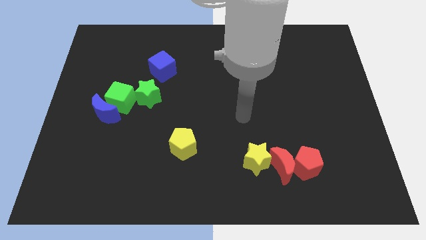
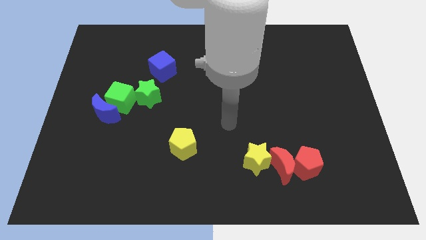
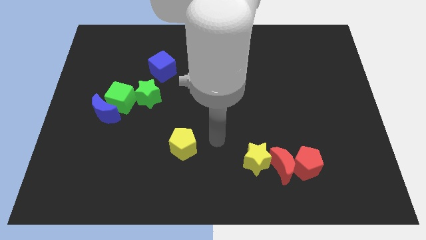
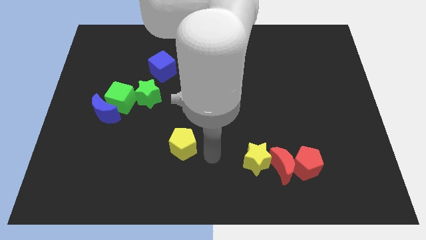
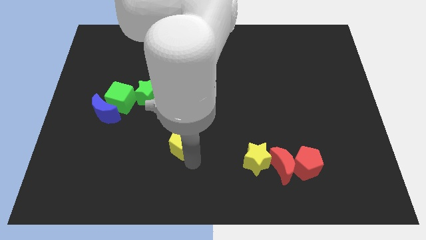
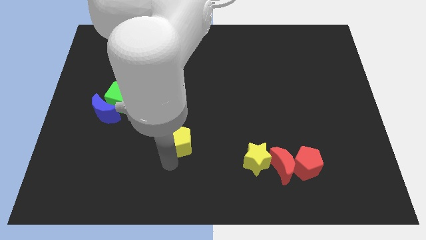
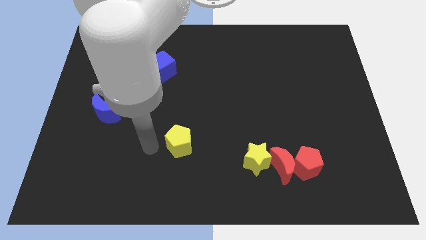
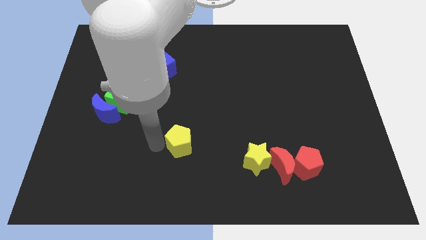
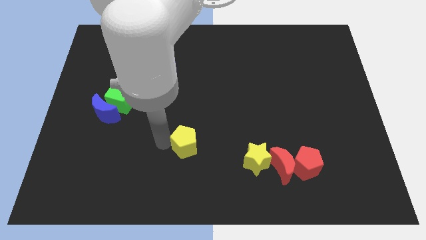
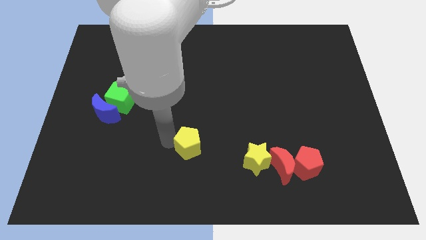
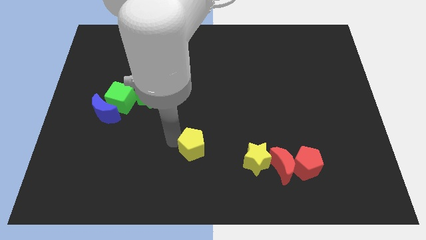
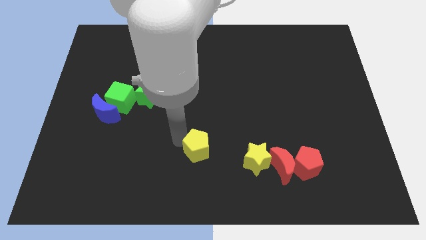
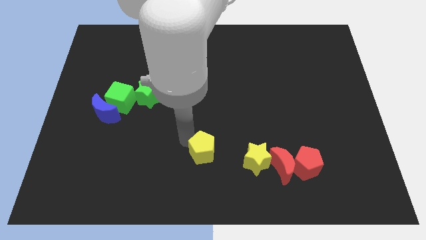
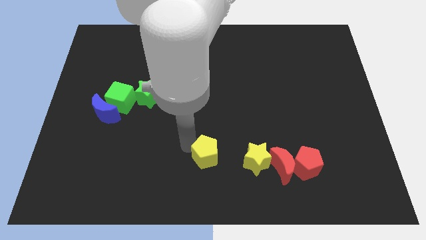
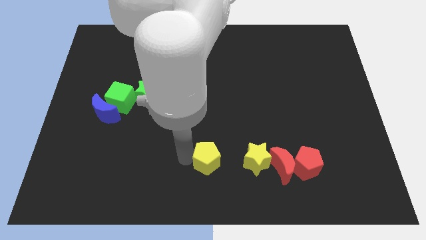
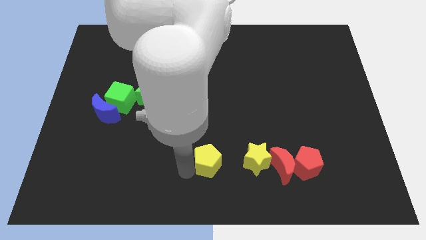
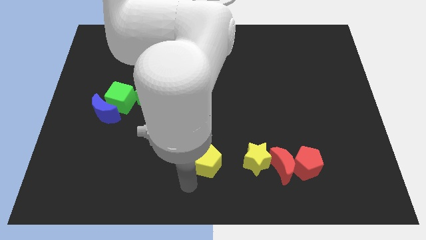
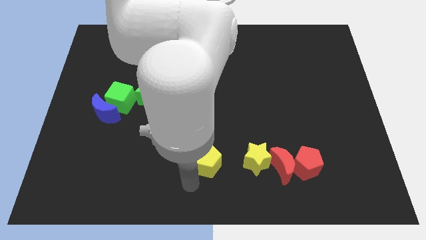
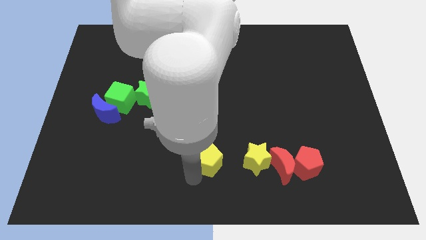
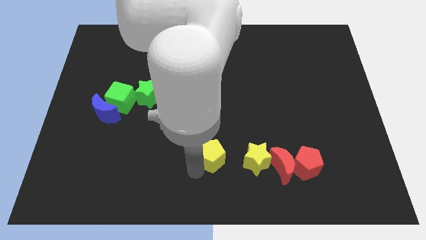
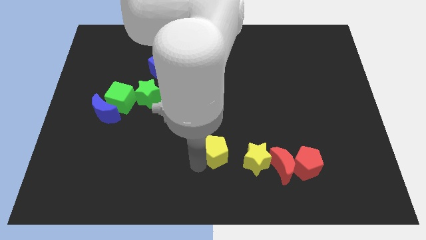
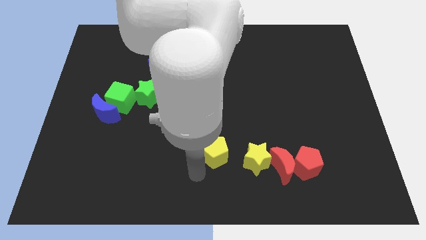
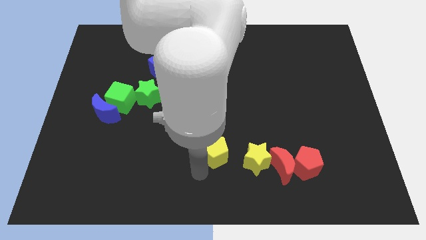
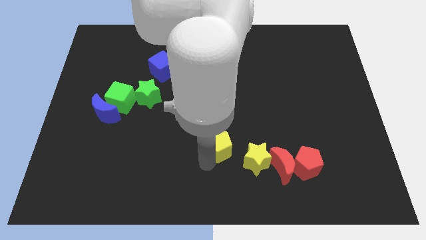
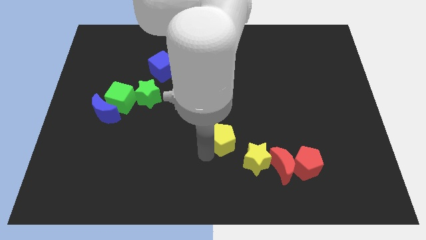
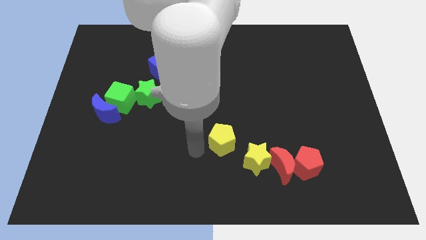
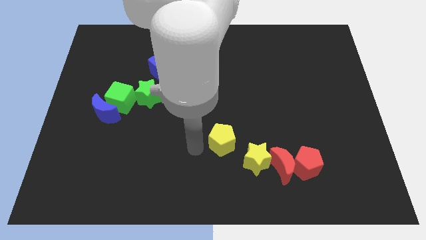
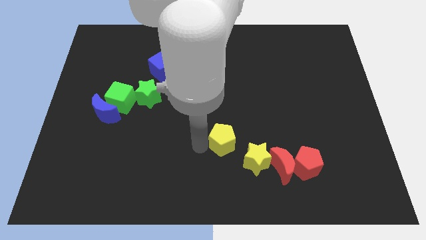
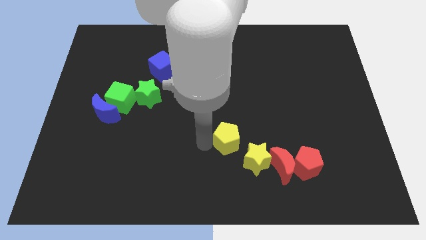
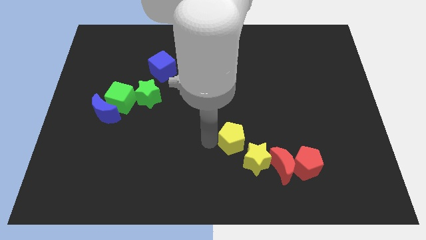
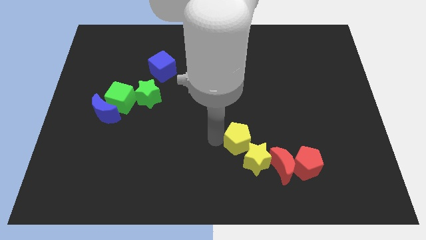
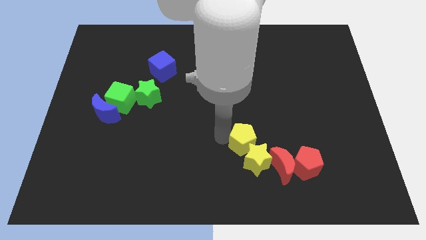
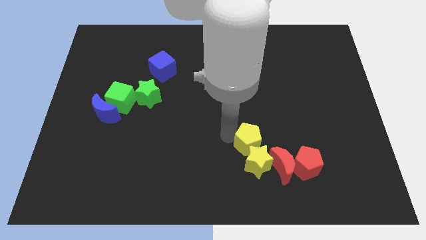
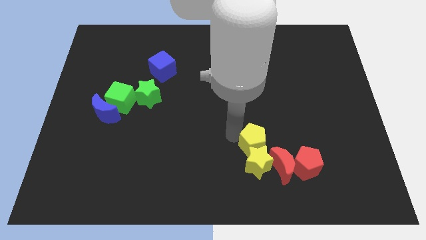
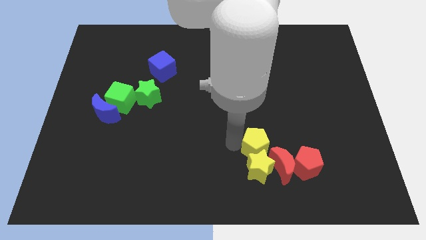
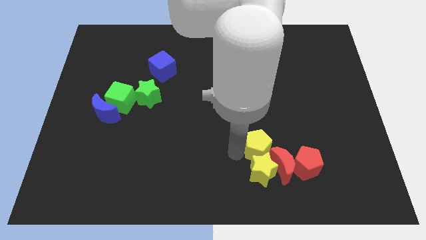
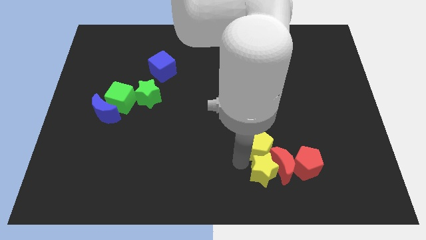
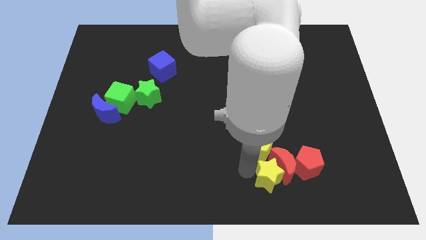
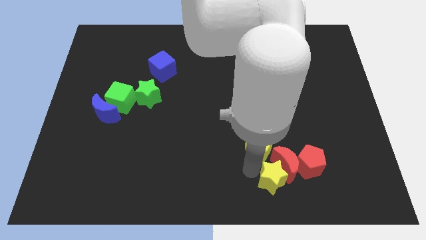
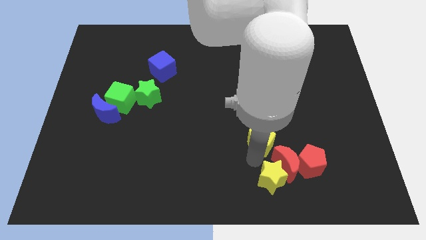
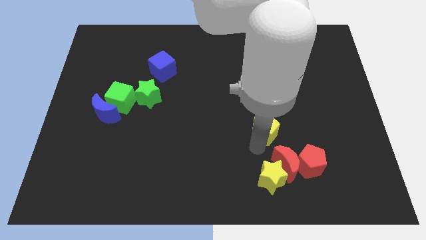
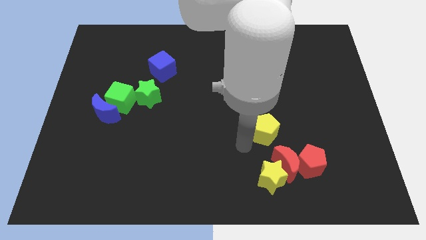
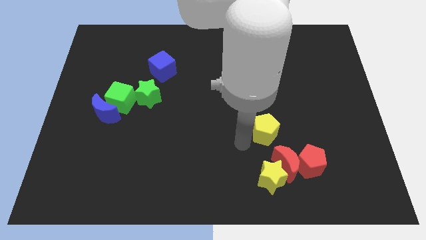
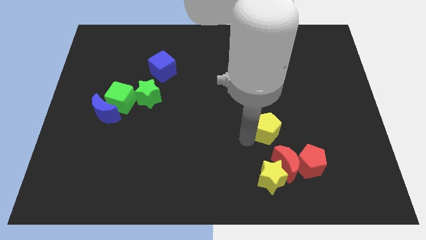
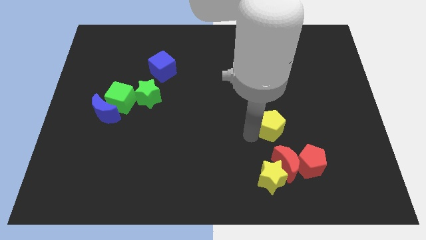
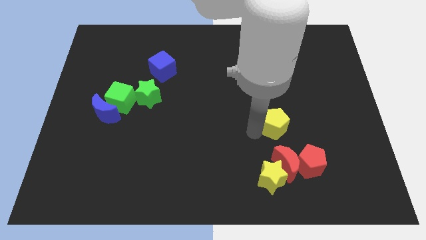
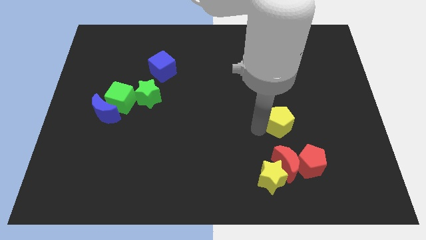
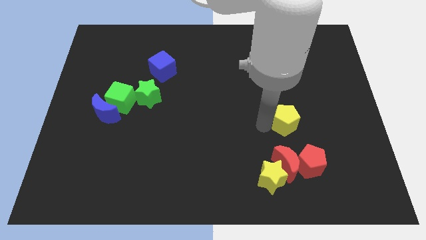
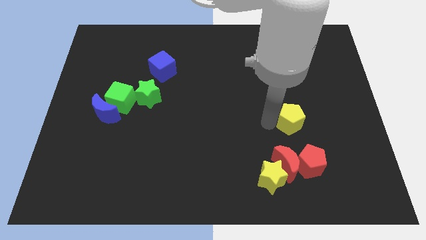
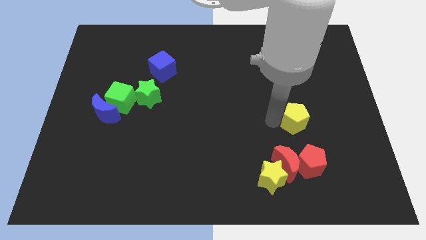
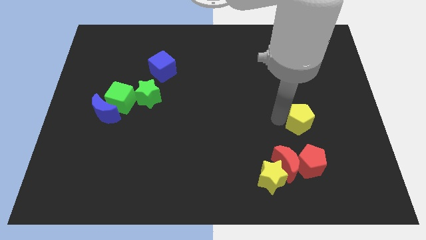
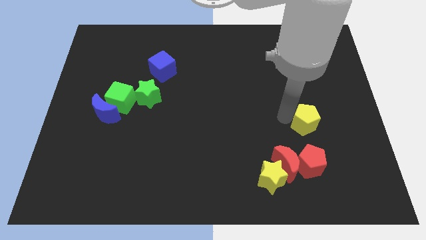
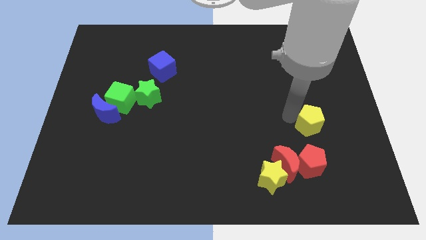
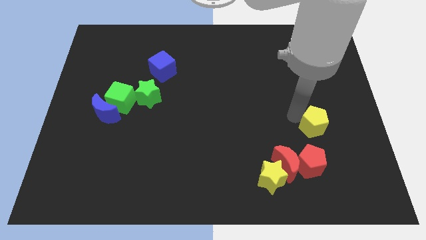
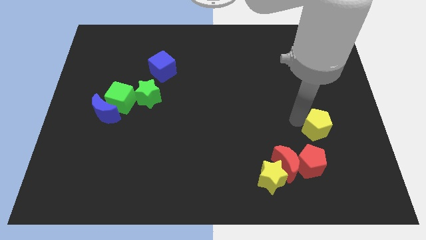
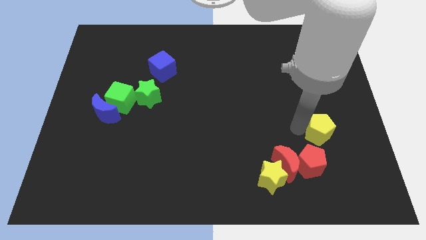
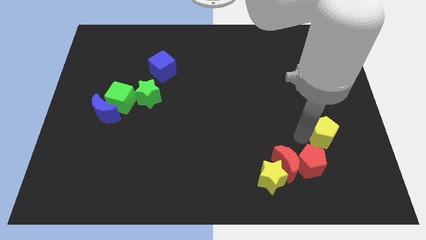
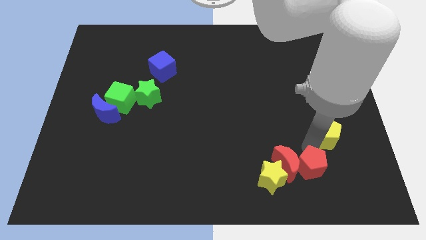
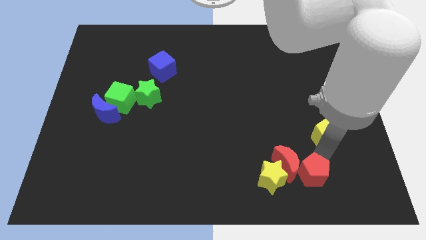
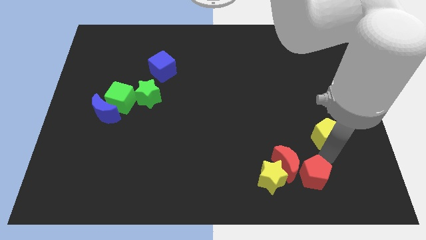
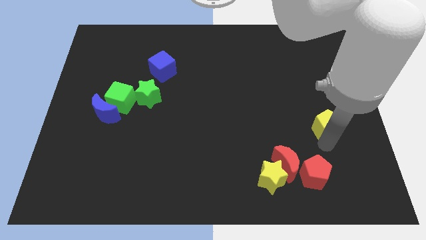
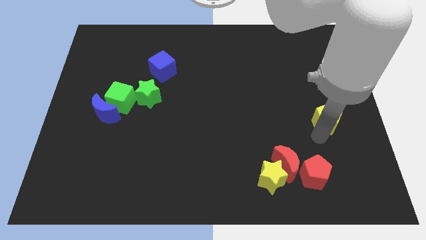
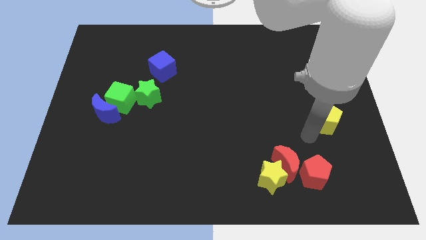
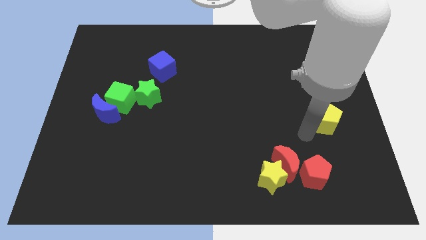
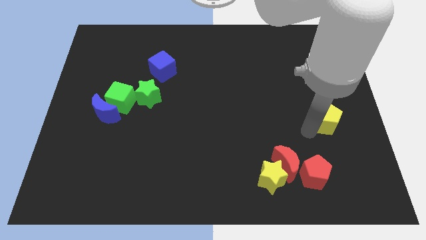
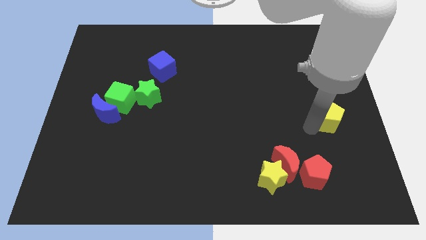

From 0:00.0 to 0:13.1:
push the yellow pentagon to the right side

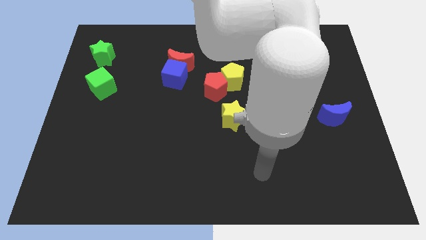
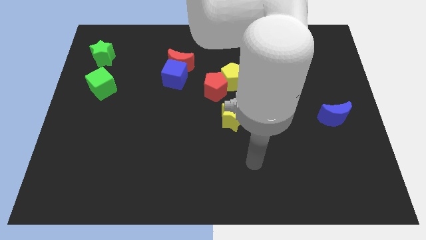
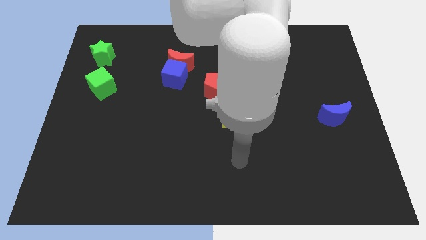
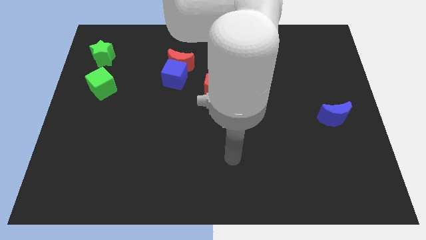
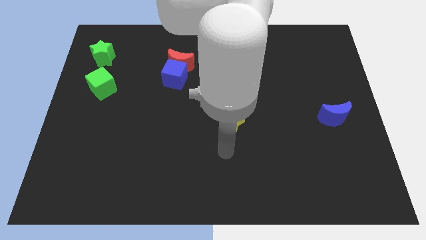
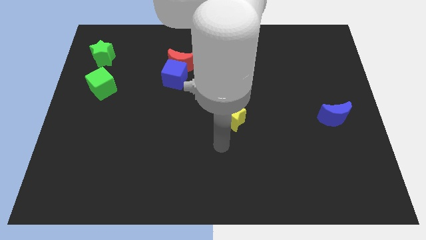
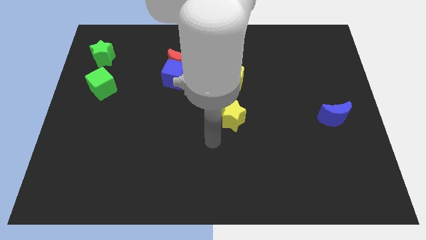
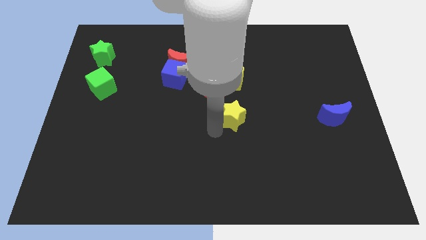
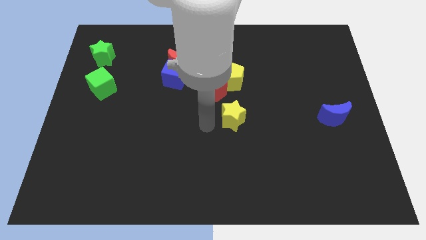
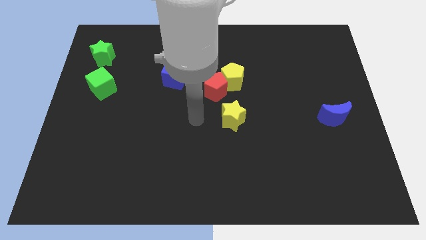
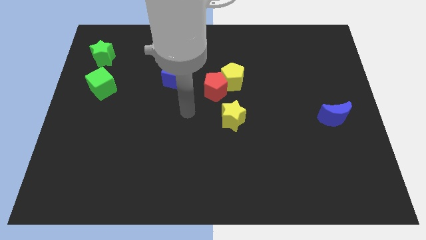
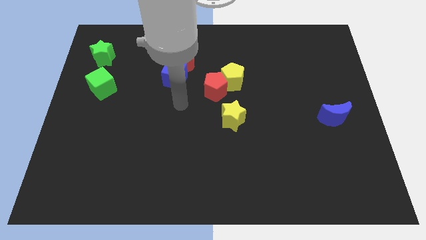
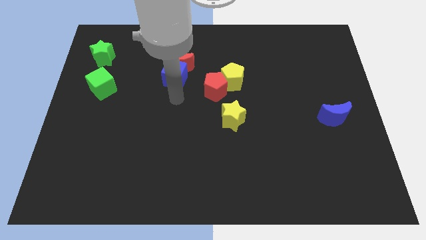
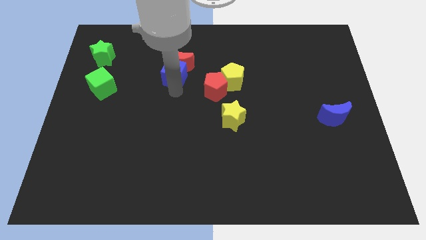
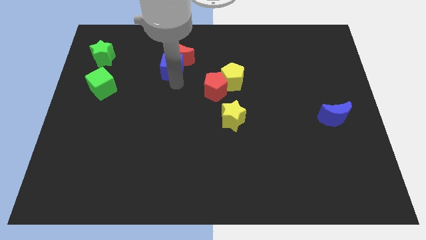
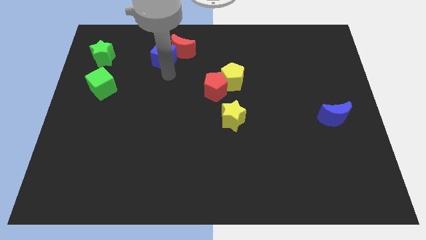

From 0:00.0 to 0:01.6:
slide the red moon to the towards your base

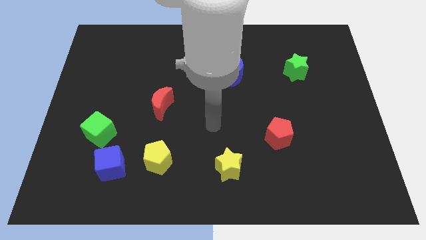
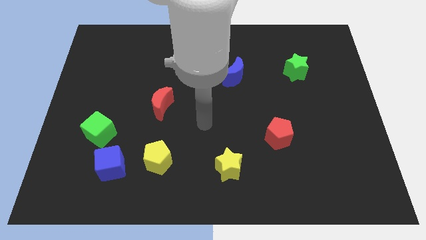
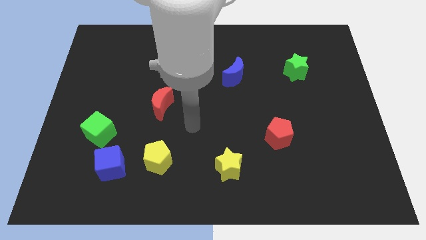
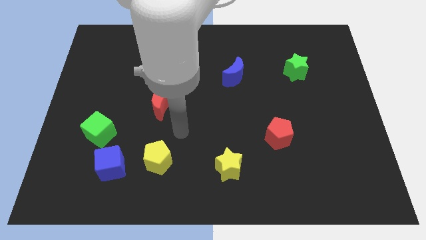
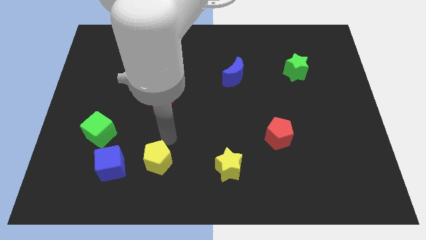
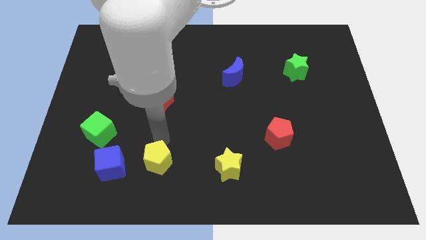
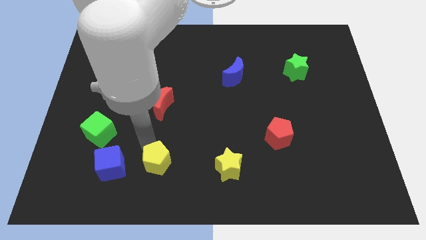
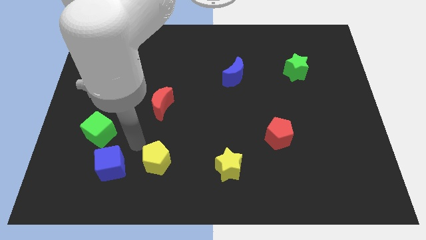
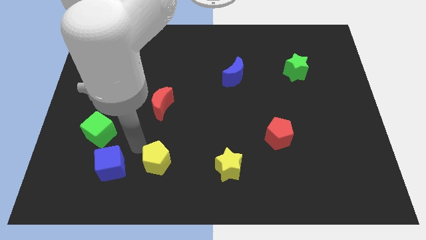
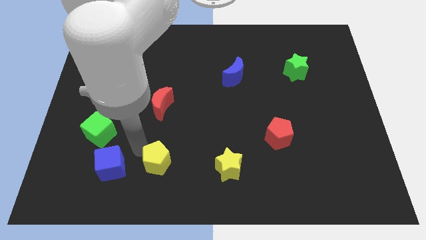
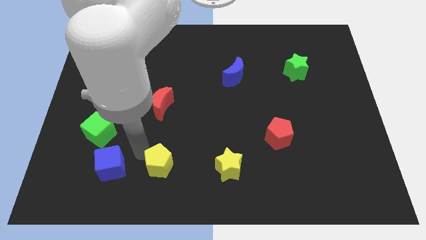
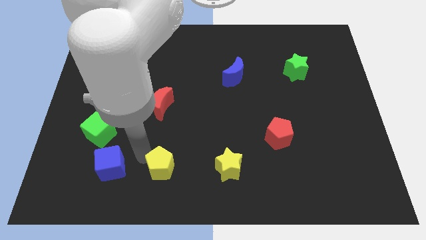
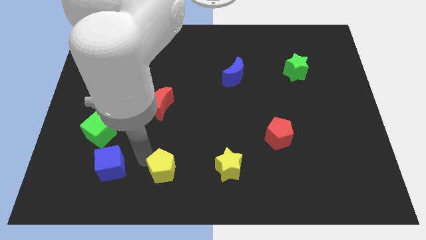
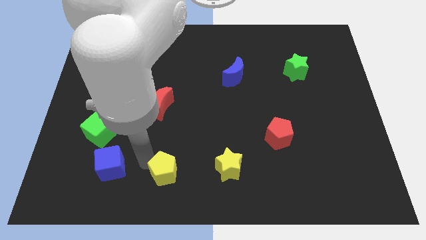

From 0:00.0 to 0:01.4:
slide the yellow pentagon to the bottom side
